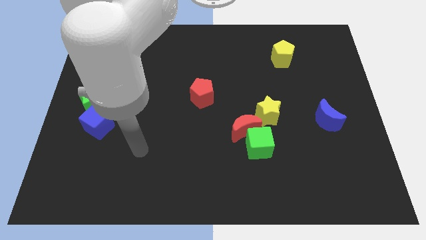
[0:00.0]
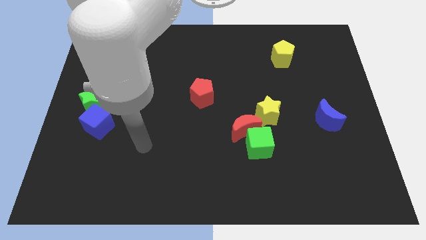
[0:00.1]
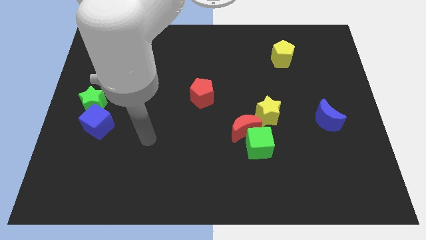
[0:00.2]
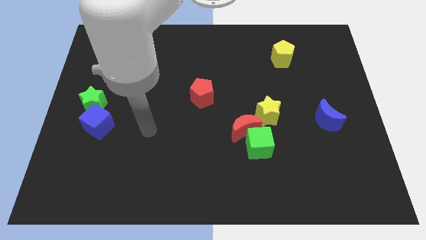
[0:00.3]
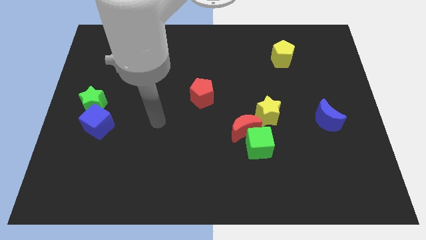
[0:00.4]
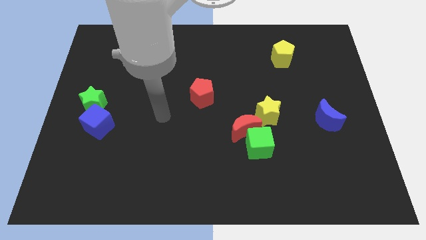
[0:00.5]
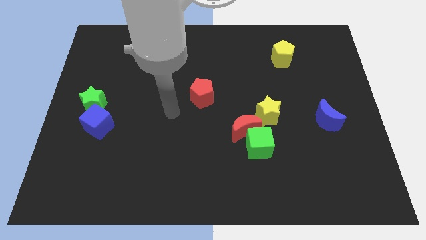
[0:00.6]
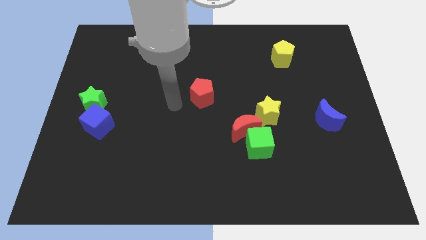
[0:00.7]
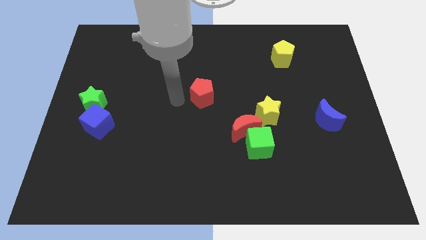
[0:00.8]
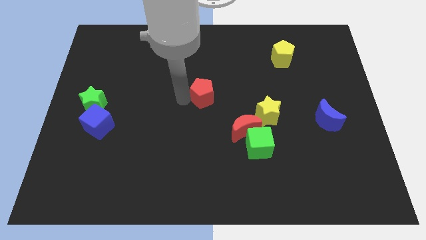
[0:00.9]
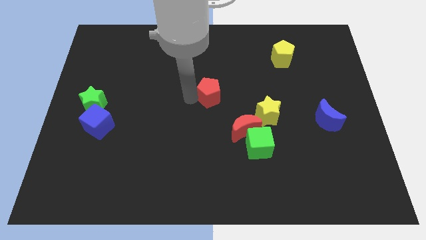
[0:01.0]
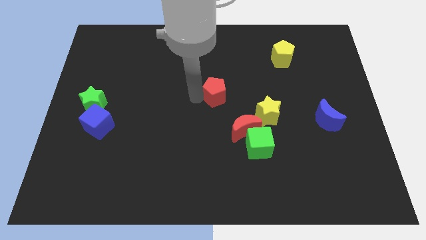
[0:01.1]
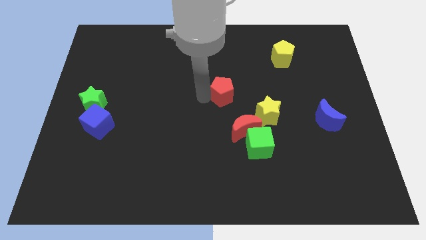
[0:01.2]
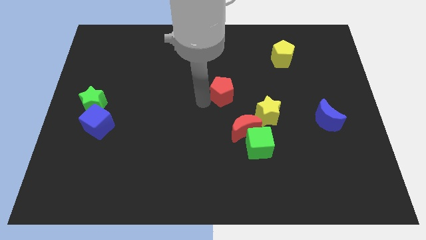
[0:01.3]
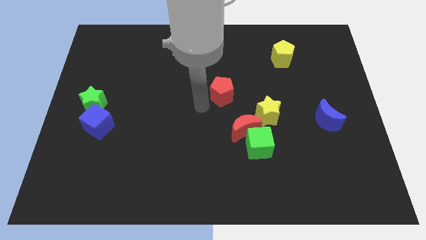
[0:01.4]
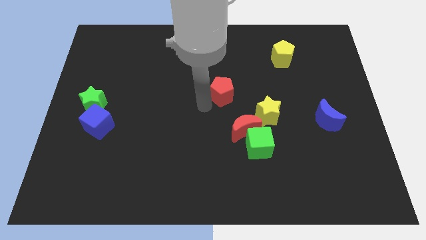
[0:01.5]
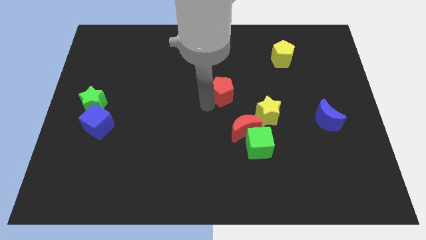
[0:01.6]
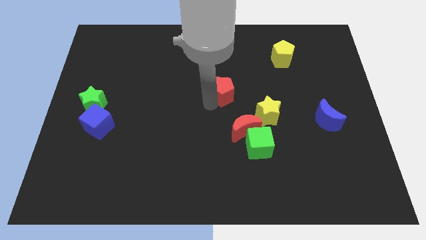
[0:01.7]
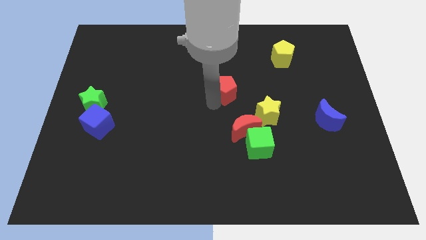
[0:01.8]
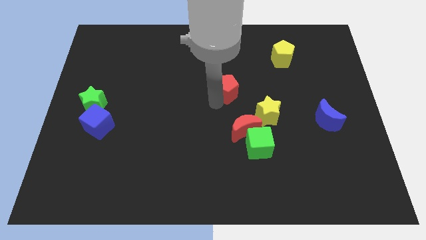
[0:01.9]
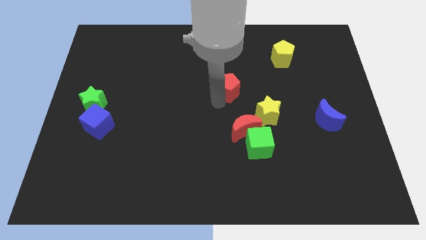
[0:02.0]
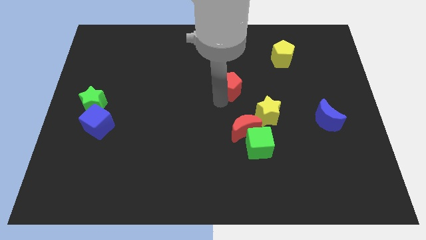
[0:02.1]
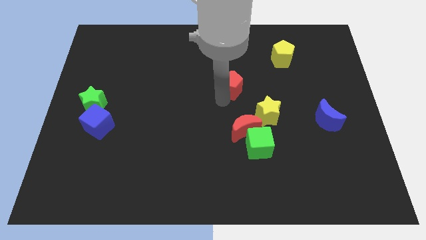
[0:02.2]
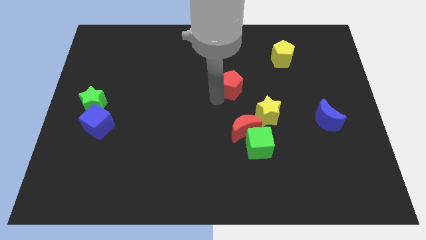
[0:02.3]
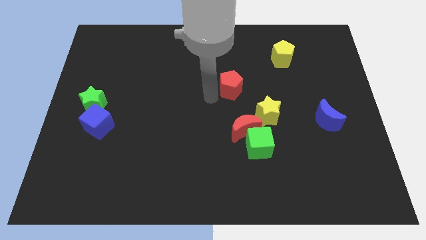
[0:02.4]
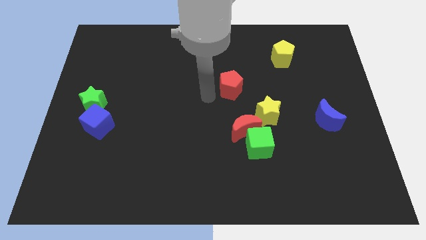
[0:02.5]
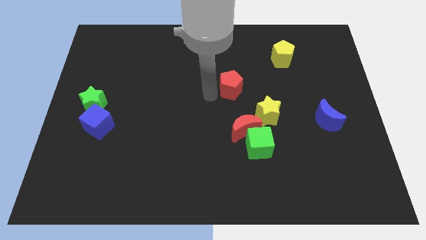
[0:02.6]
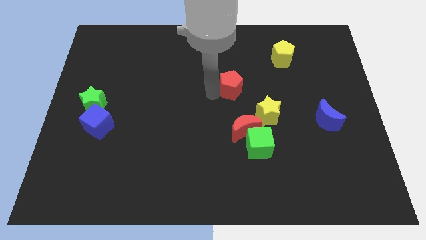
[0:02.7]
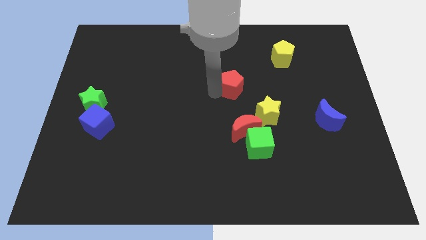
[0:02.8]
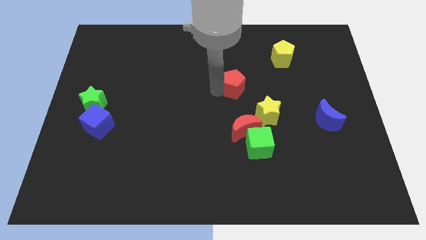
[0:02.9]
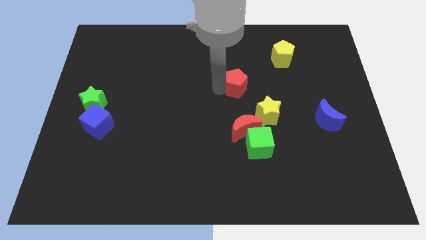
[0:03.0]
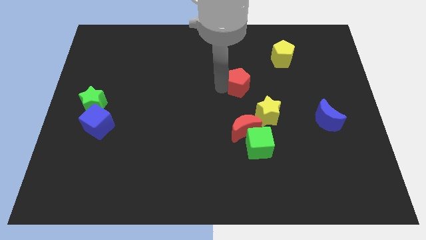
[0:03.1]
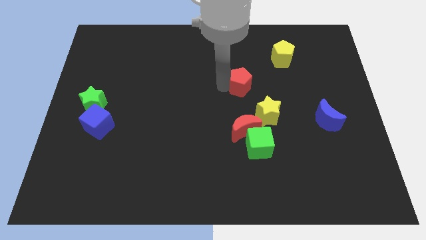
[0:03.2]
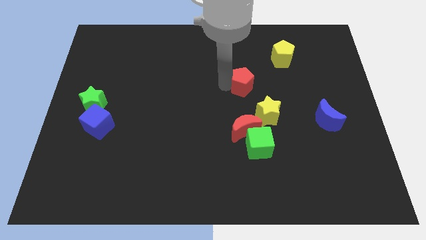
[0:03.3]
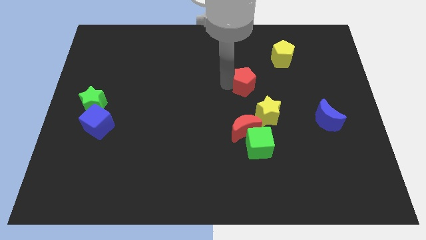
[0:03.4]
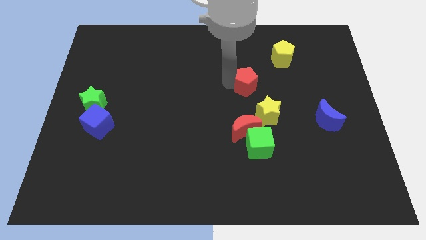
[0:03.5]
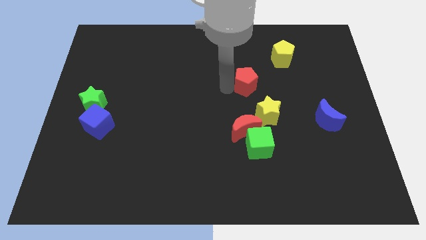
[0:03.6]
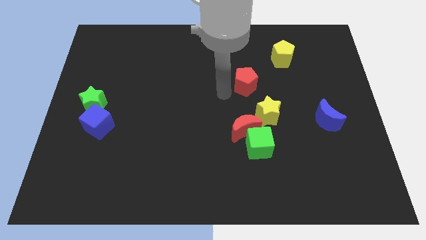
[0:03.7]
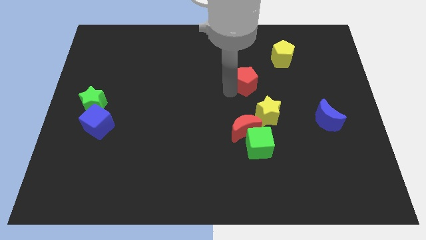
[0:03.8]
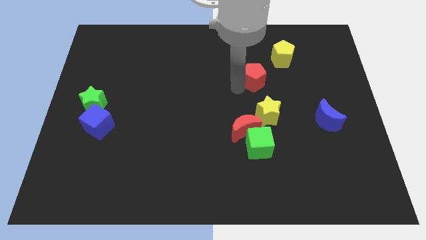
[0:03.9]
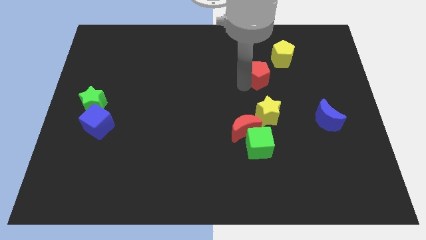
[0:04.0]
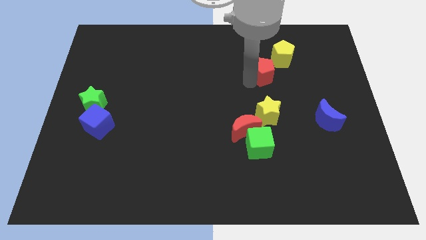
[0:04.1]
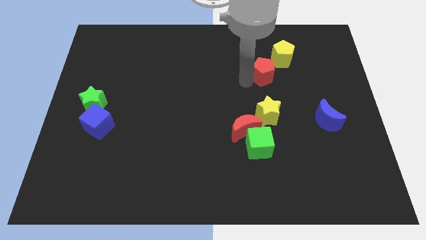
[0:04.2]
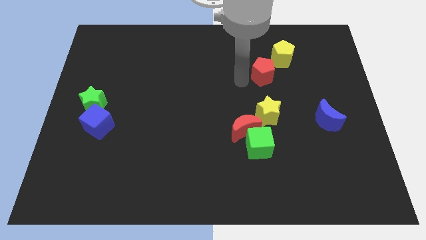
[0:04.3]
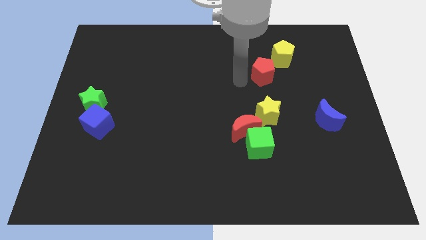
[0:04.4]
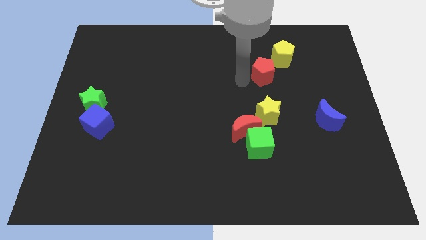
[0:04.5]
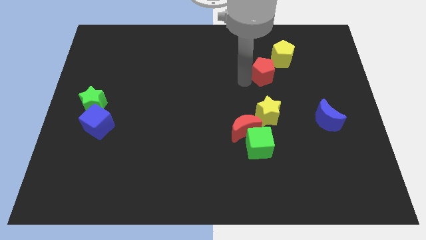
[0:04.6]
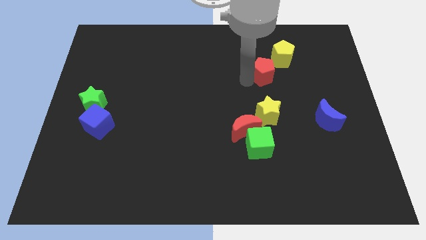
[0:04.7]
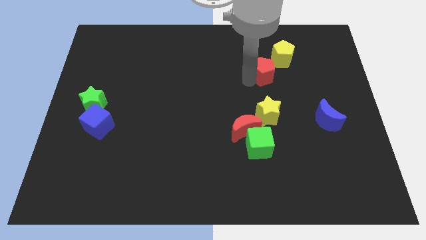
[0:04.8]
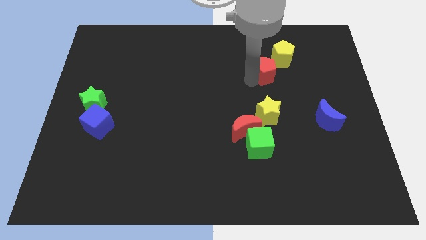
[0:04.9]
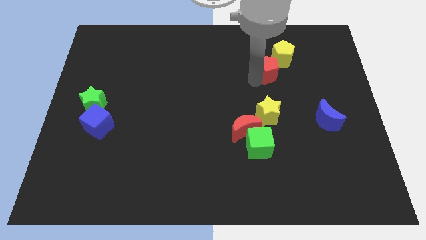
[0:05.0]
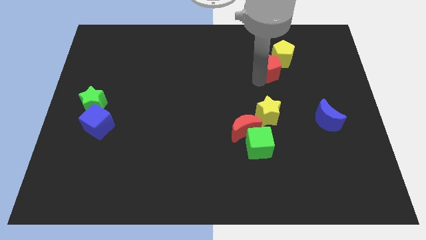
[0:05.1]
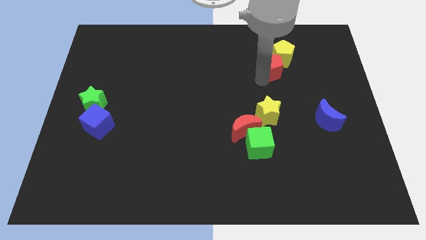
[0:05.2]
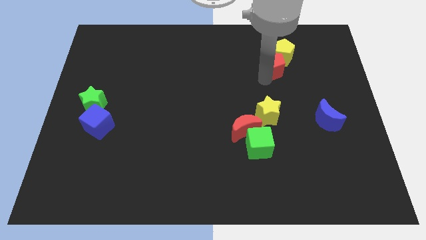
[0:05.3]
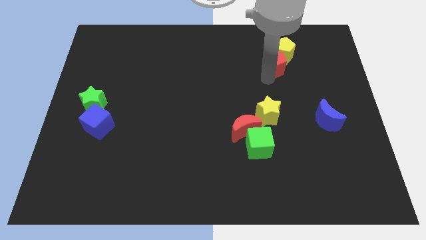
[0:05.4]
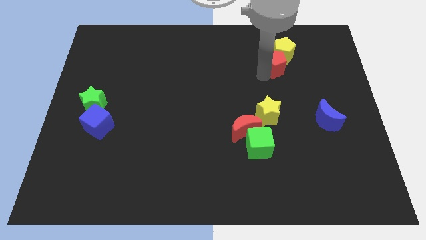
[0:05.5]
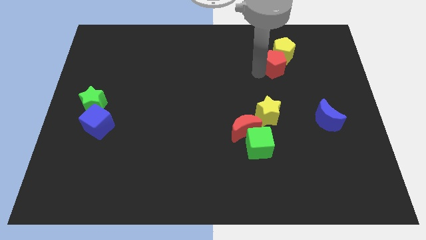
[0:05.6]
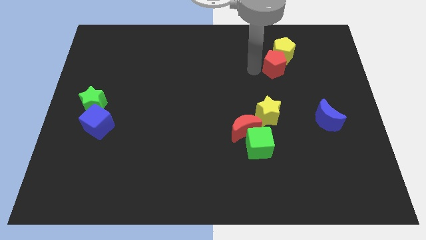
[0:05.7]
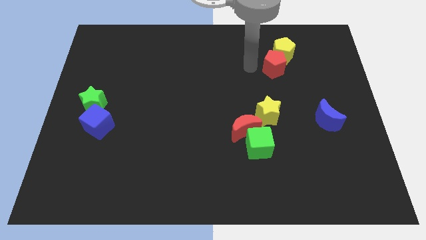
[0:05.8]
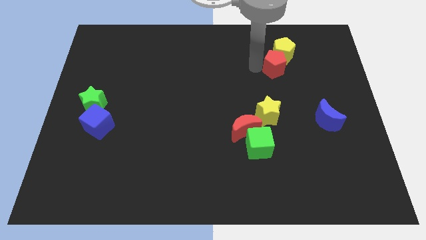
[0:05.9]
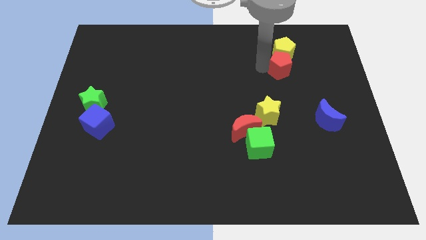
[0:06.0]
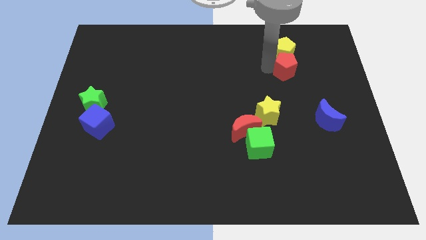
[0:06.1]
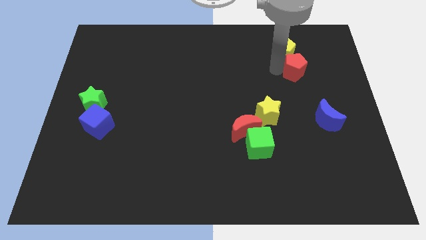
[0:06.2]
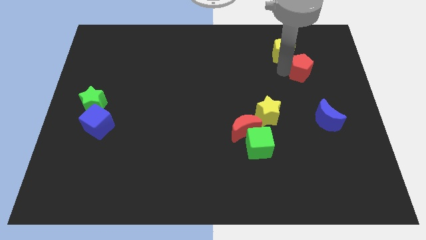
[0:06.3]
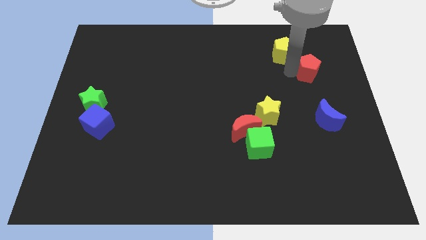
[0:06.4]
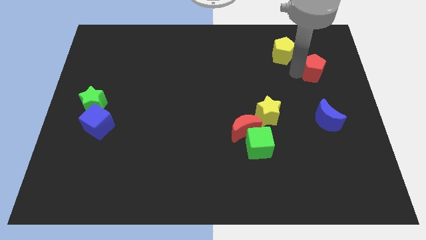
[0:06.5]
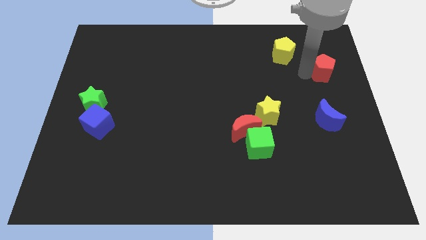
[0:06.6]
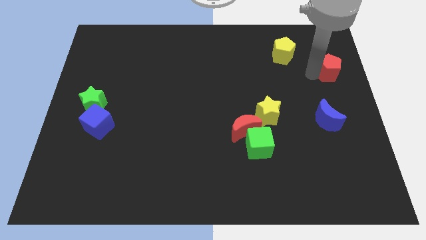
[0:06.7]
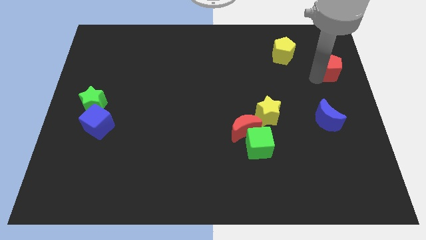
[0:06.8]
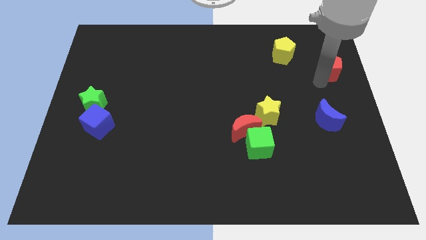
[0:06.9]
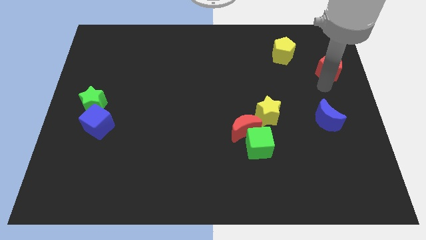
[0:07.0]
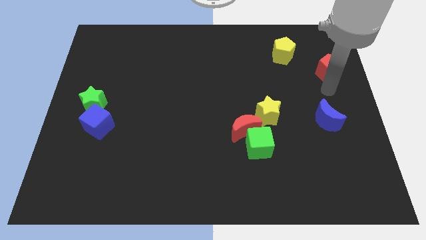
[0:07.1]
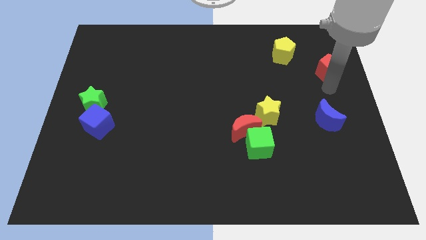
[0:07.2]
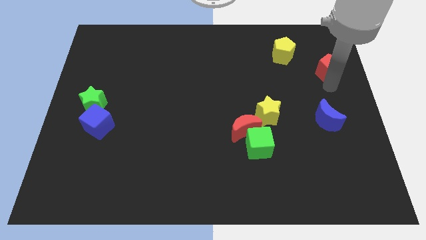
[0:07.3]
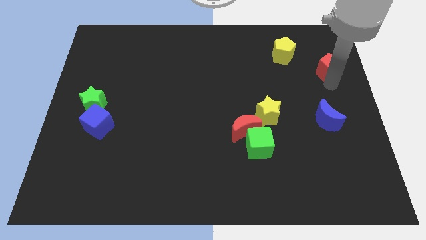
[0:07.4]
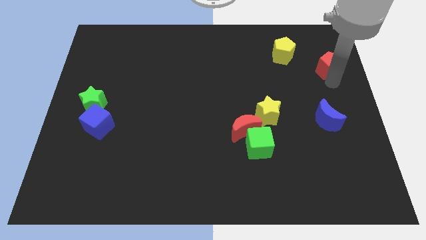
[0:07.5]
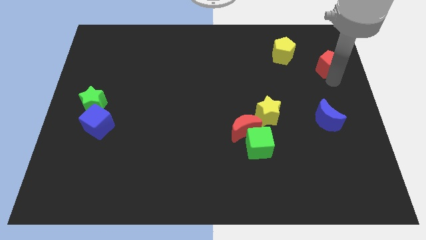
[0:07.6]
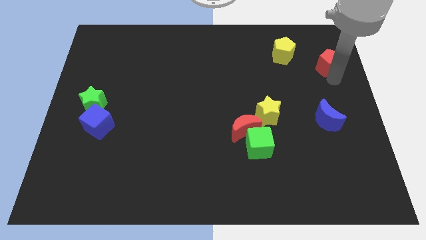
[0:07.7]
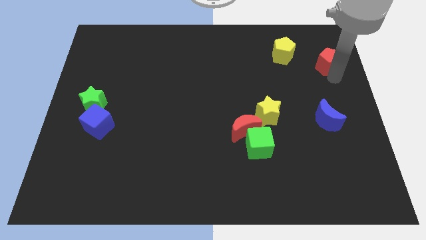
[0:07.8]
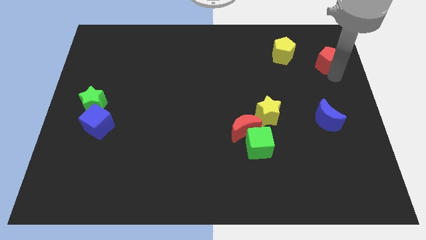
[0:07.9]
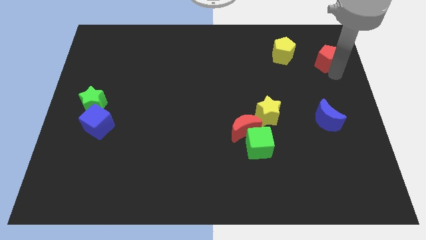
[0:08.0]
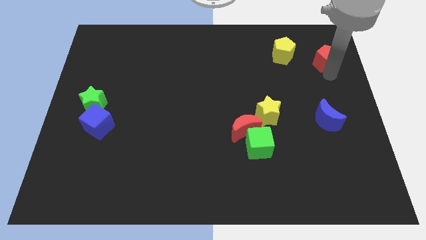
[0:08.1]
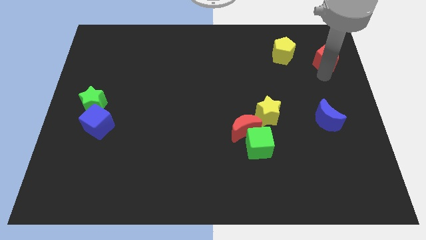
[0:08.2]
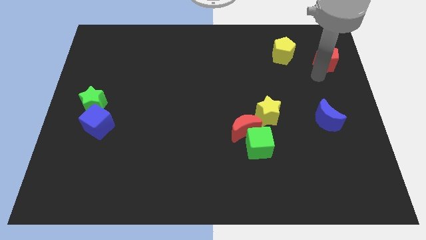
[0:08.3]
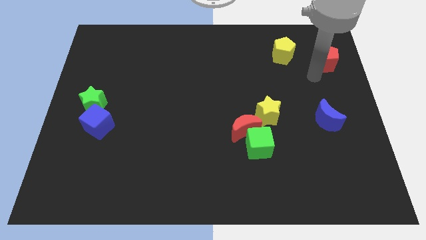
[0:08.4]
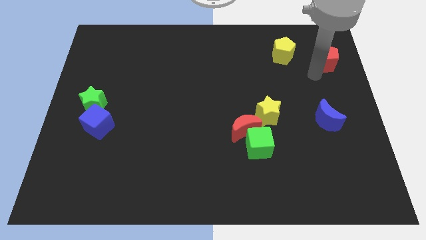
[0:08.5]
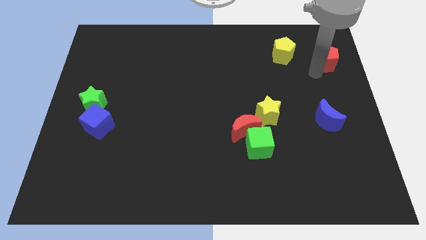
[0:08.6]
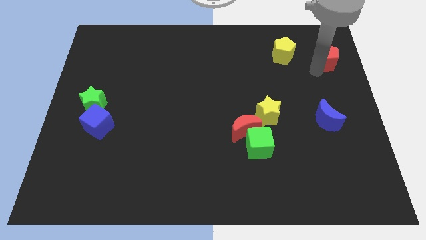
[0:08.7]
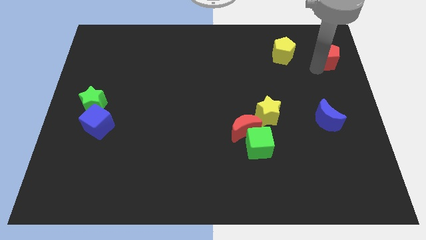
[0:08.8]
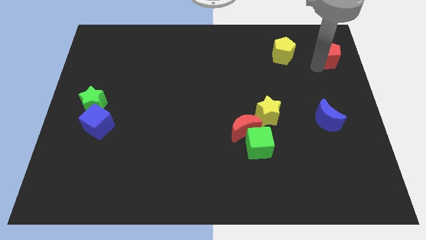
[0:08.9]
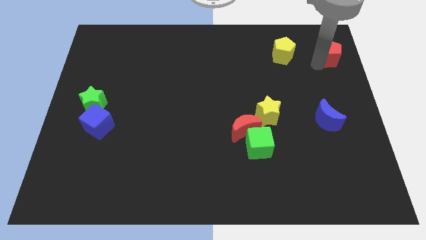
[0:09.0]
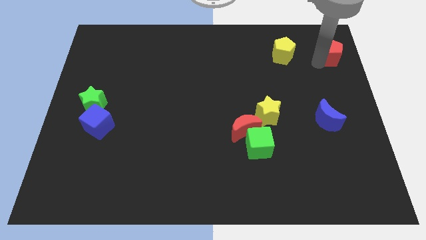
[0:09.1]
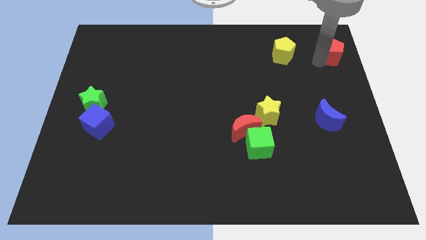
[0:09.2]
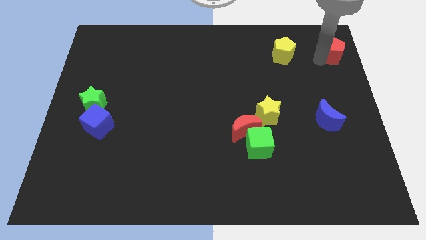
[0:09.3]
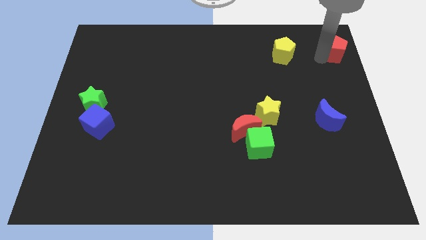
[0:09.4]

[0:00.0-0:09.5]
put the red pentagon to the top right
